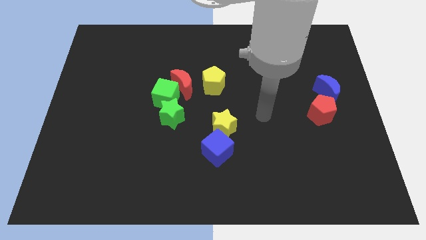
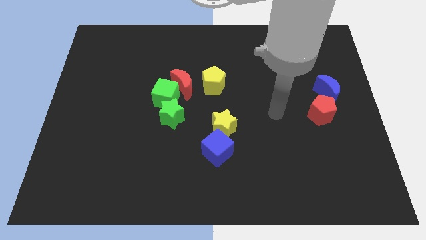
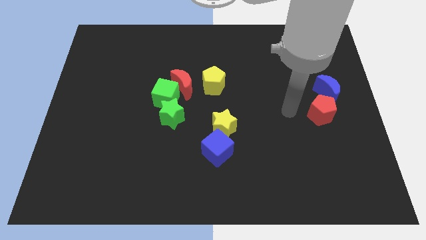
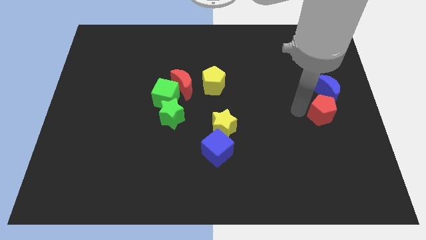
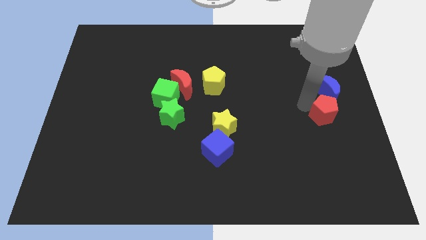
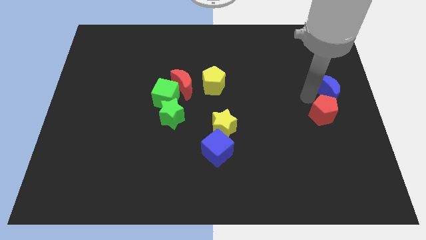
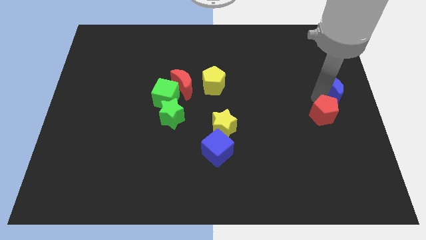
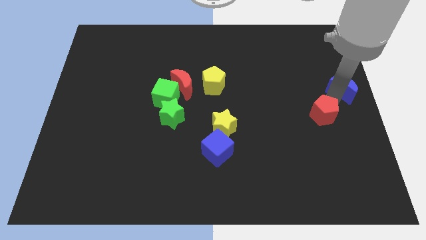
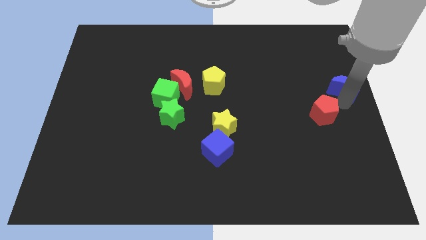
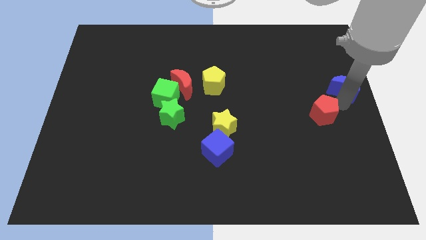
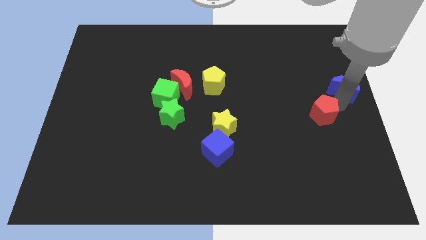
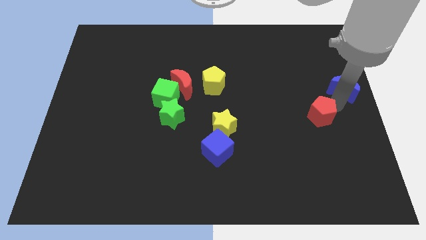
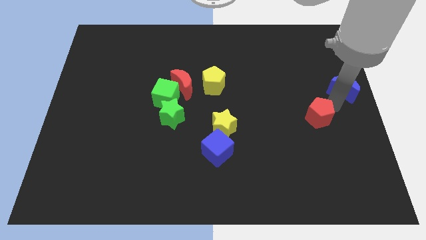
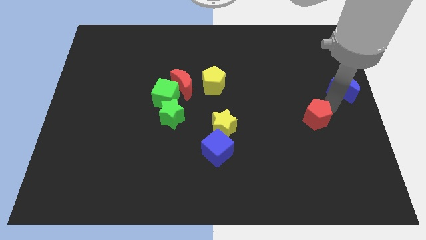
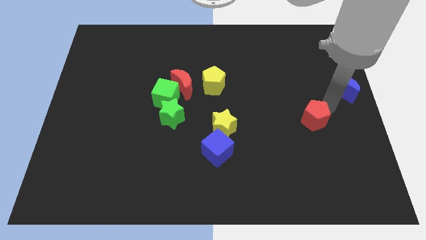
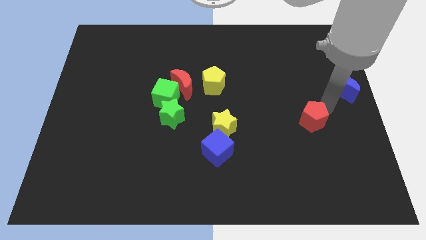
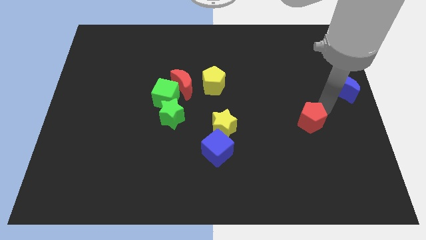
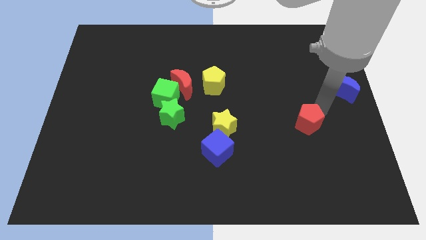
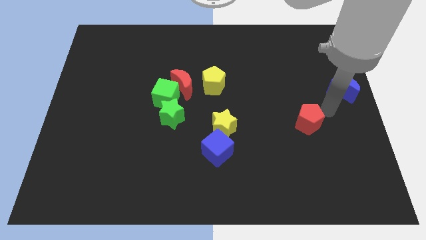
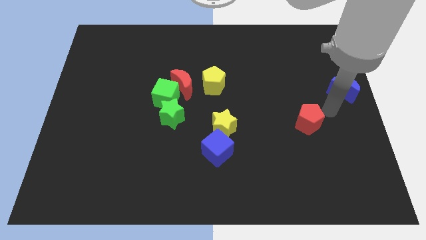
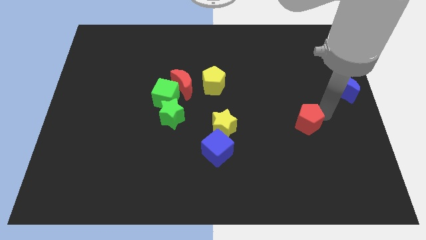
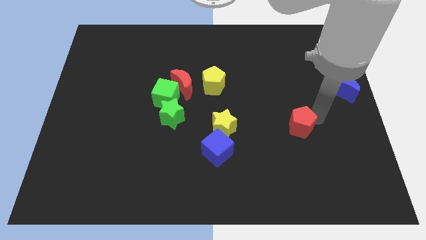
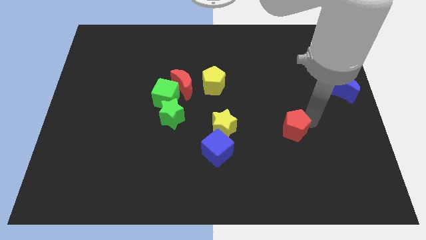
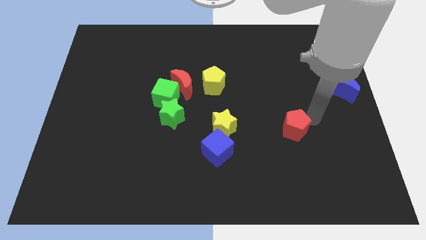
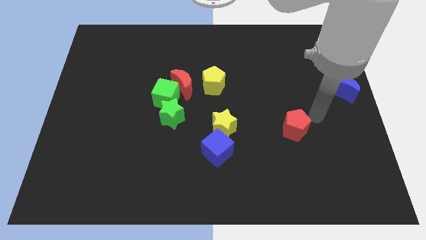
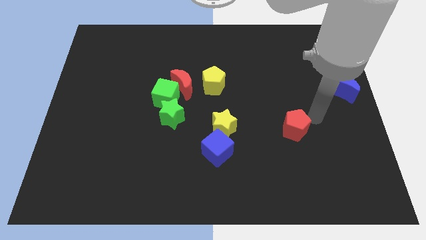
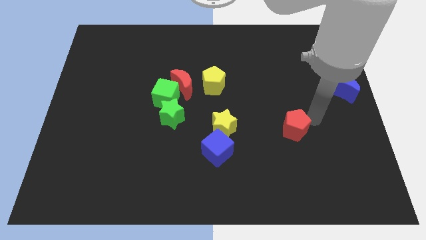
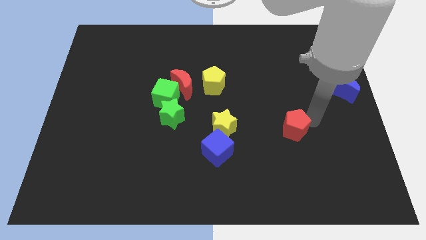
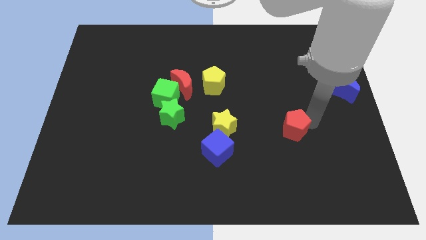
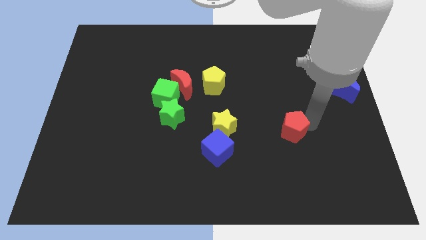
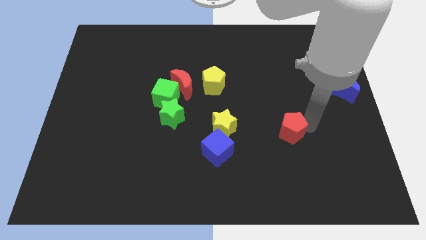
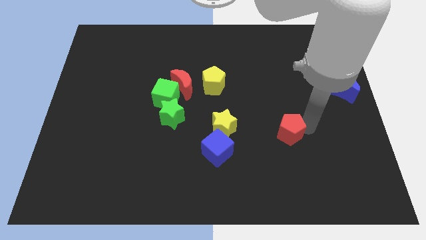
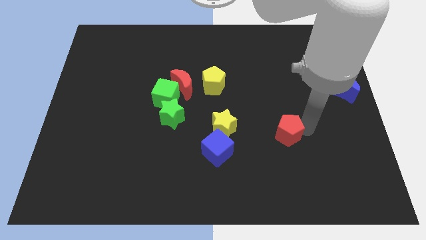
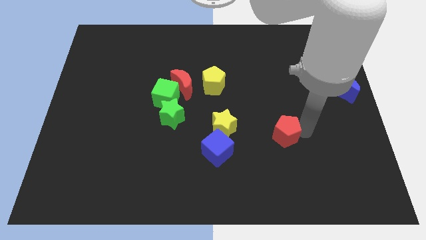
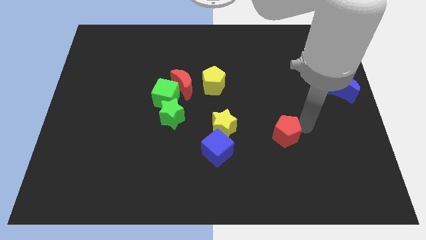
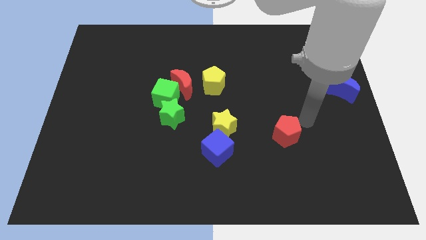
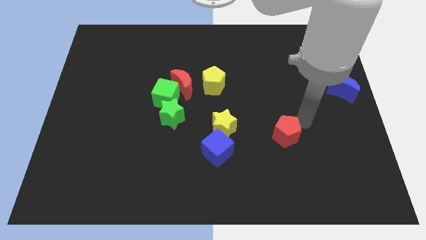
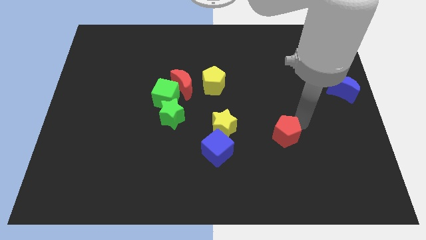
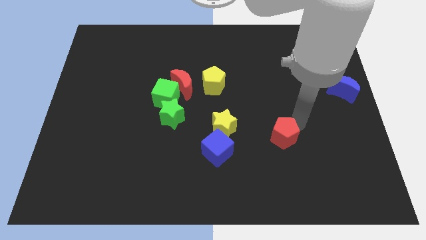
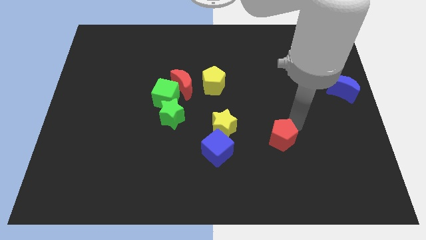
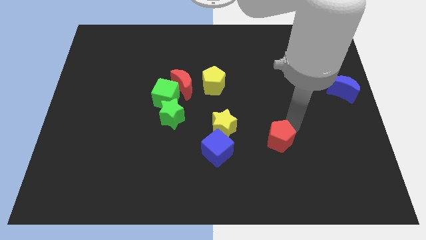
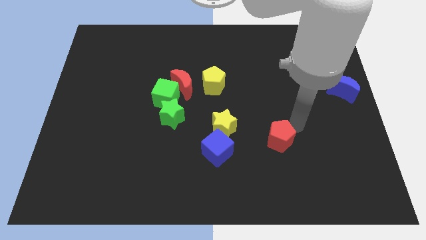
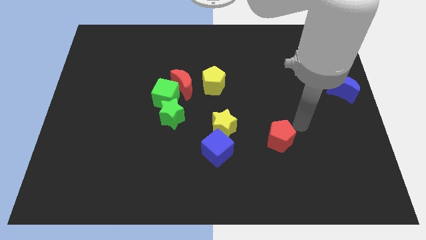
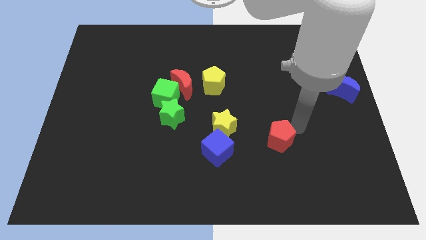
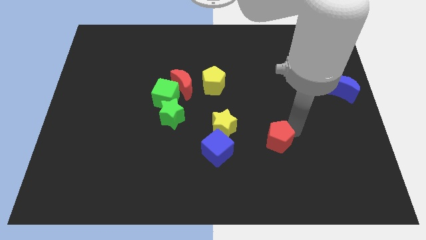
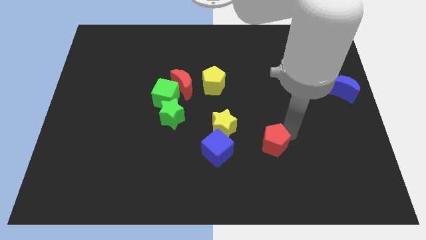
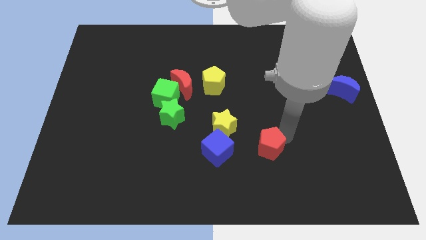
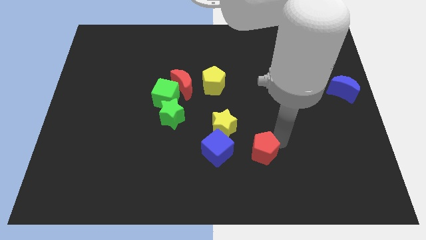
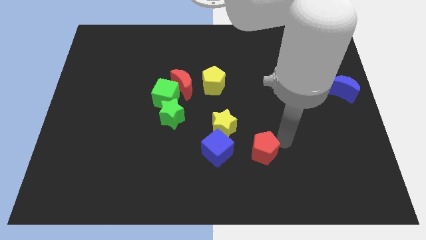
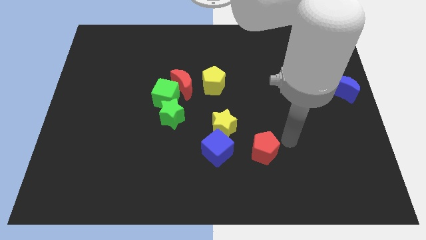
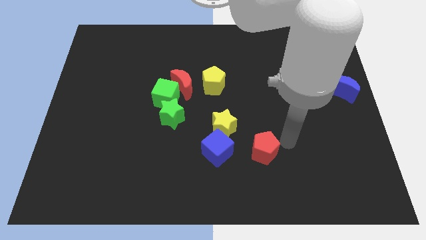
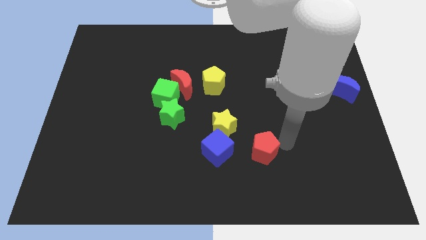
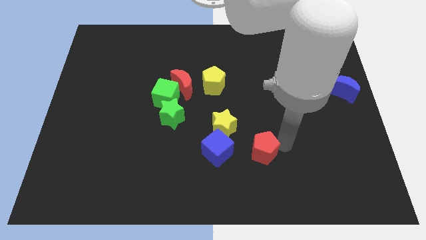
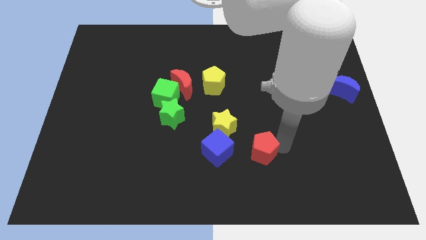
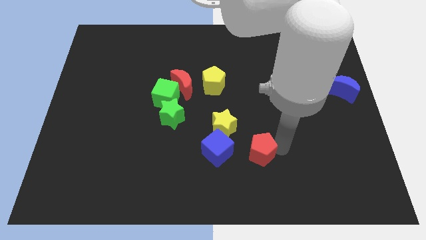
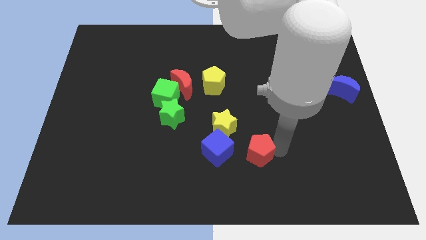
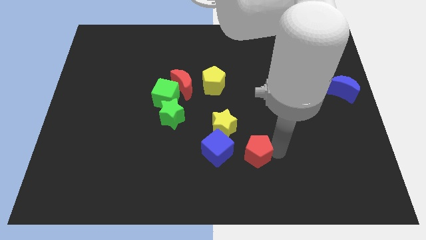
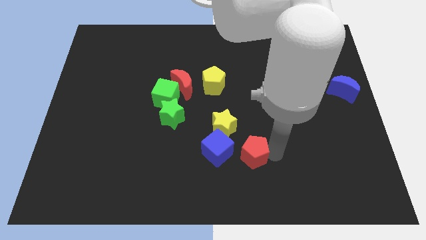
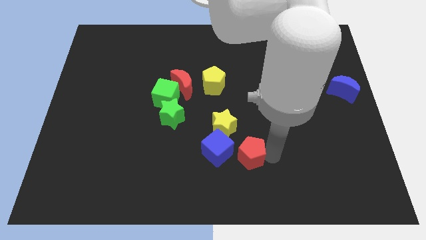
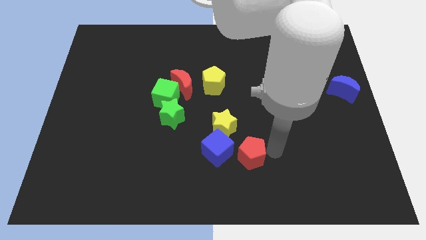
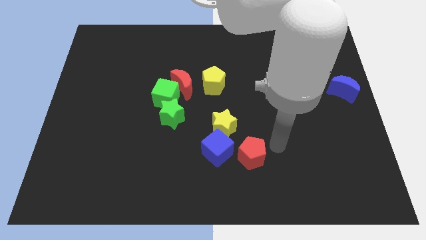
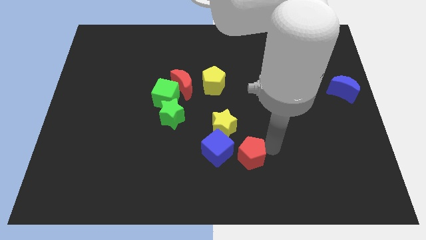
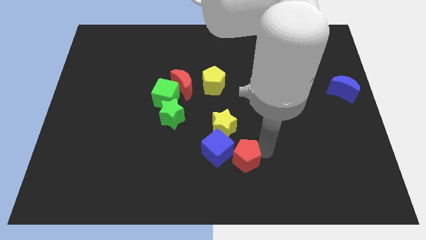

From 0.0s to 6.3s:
slide the red pentagon to the bottom side of the yellow star
